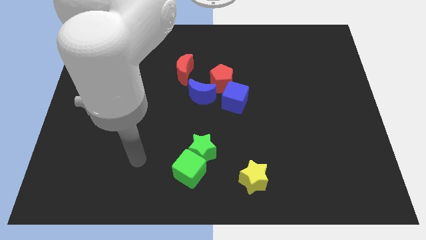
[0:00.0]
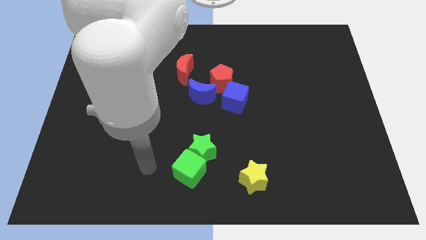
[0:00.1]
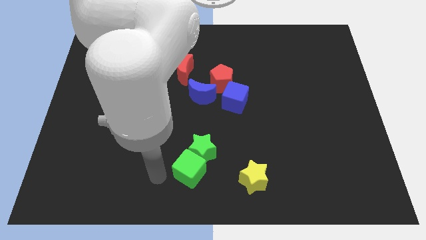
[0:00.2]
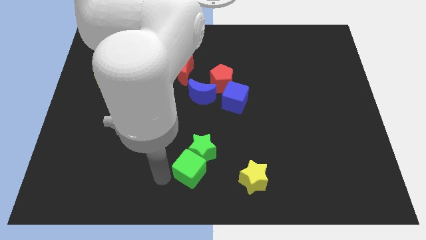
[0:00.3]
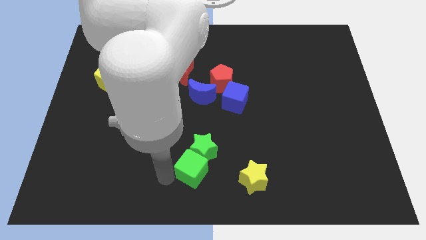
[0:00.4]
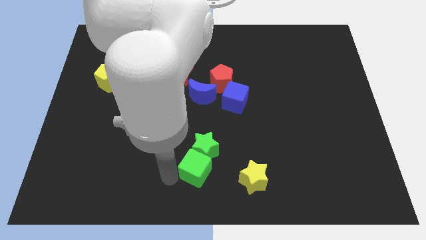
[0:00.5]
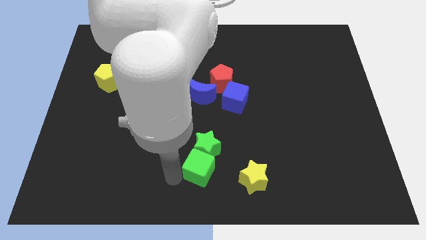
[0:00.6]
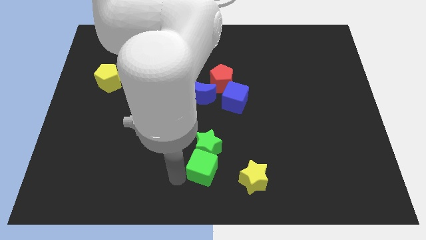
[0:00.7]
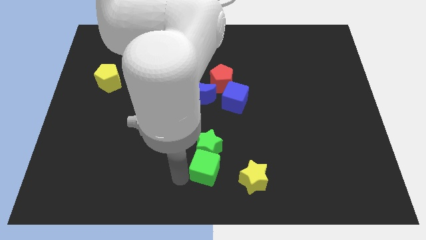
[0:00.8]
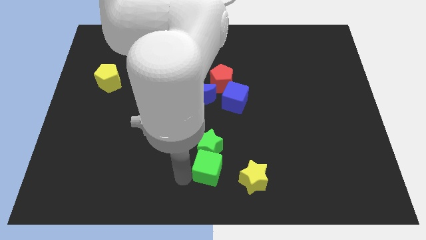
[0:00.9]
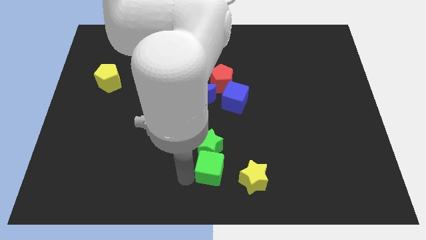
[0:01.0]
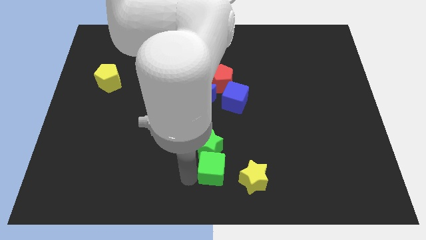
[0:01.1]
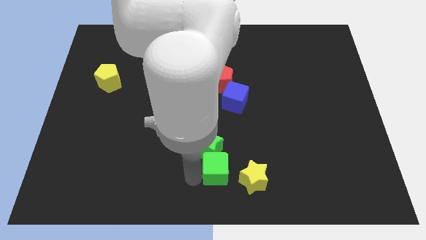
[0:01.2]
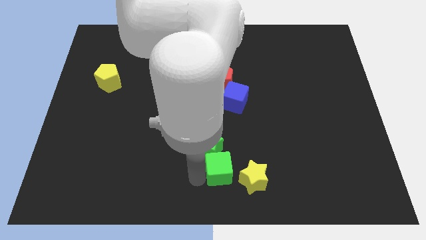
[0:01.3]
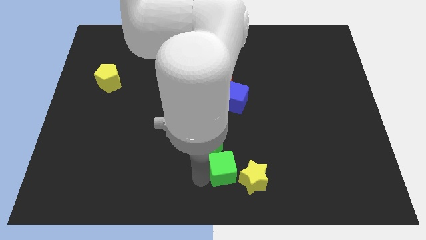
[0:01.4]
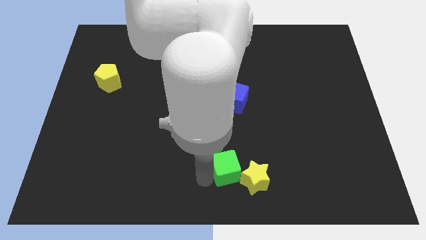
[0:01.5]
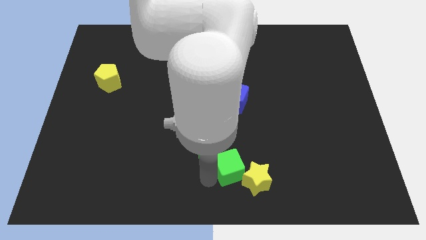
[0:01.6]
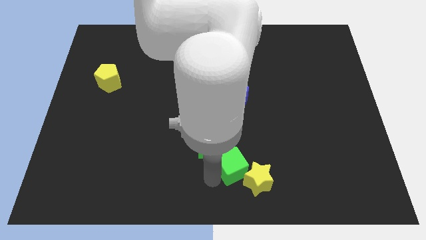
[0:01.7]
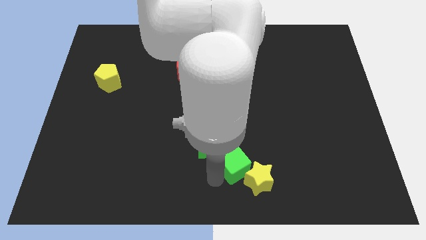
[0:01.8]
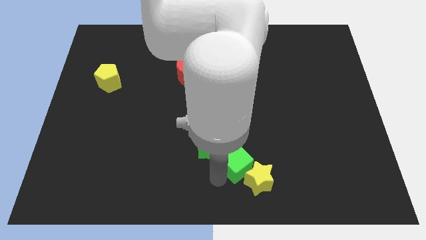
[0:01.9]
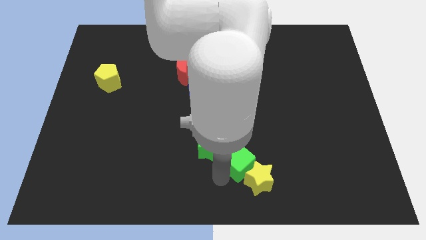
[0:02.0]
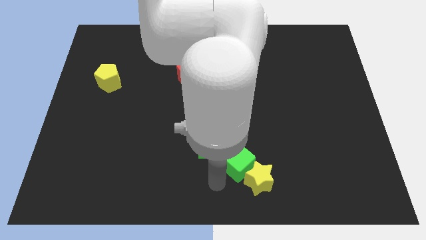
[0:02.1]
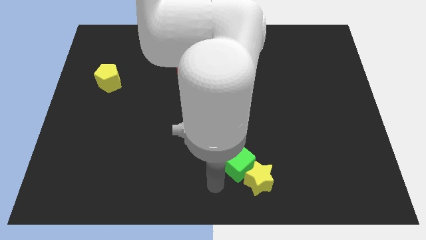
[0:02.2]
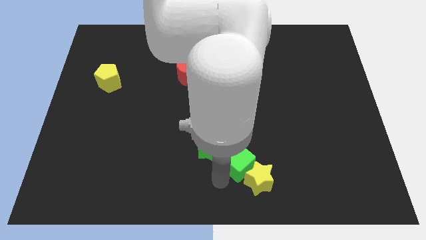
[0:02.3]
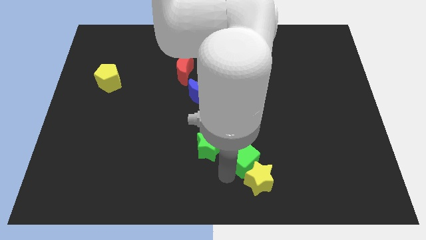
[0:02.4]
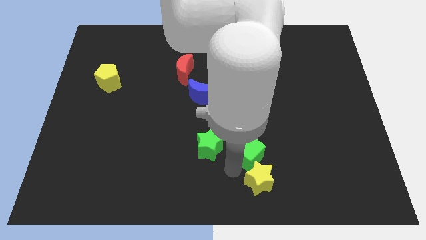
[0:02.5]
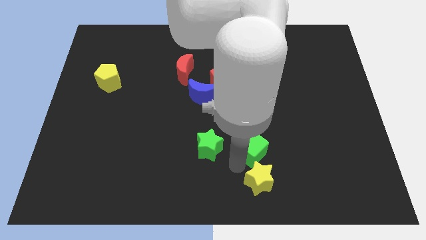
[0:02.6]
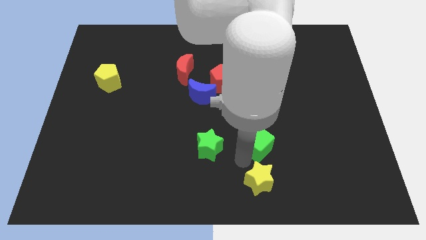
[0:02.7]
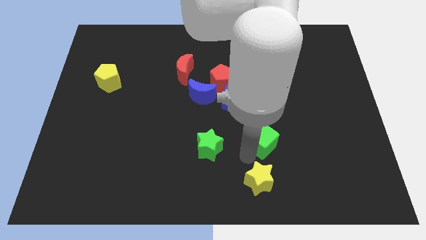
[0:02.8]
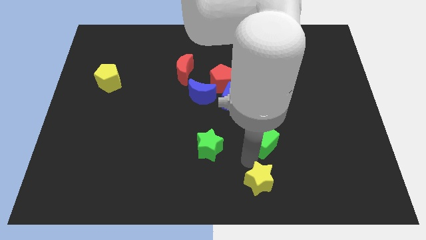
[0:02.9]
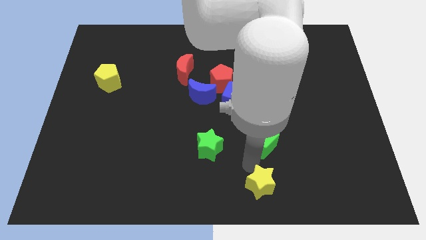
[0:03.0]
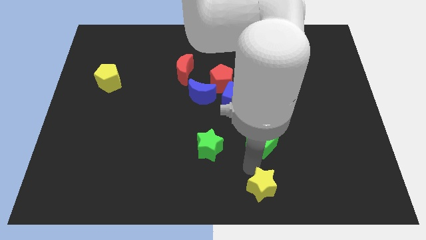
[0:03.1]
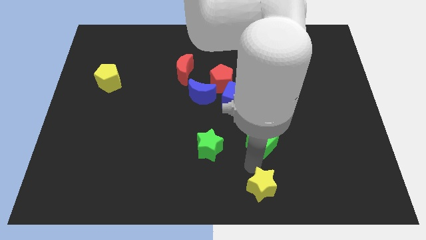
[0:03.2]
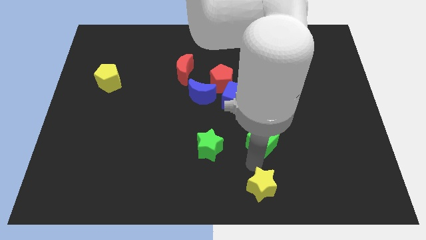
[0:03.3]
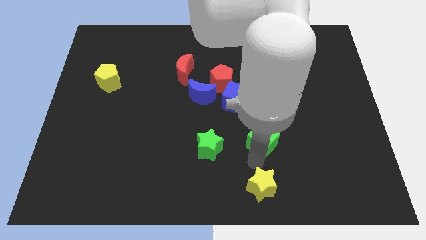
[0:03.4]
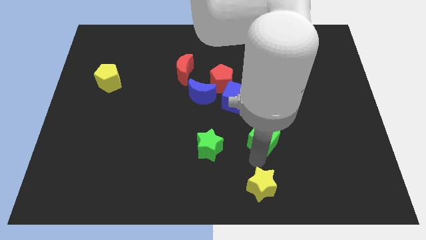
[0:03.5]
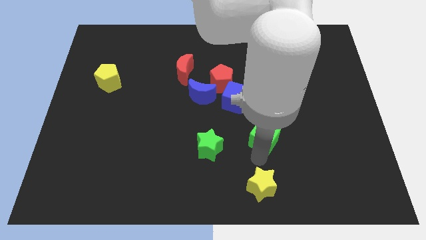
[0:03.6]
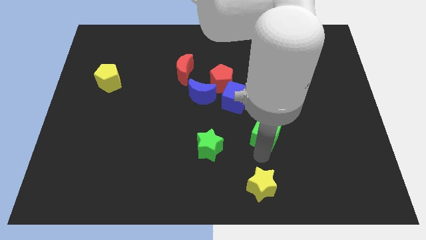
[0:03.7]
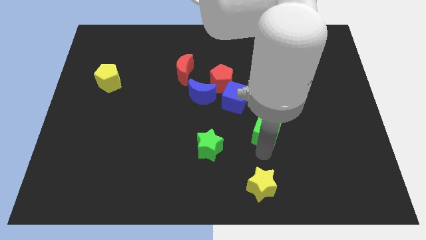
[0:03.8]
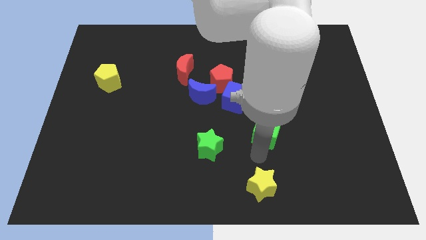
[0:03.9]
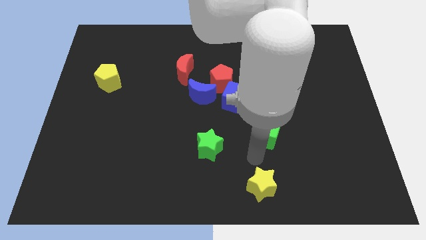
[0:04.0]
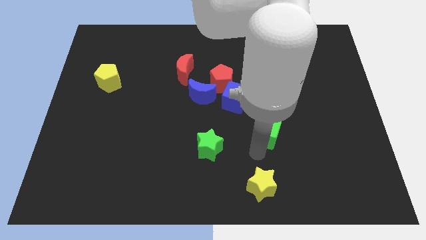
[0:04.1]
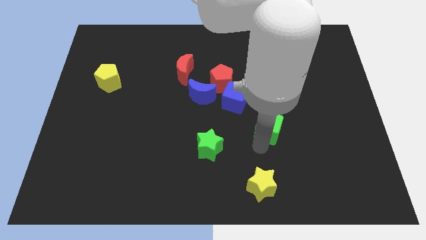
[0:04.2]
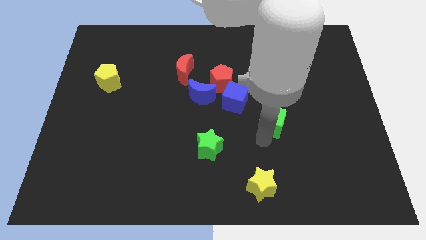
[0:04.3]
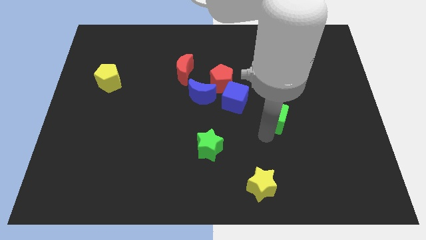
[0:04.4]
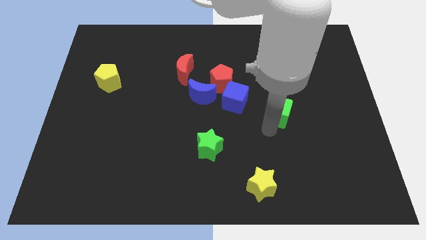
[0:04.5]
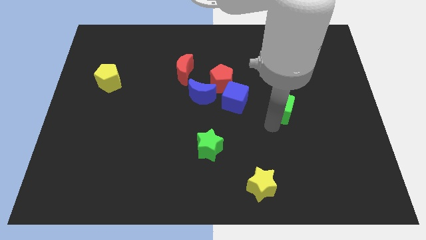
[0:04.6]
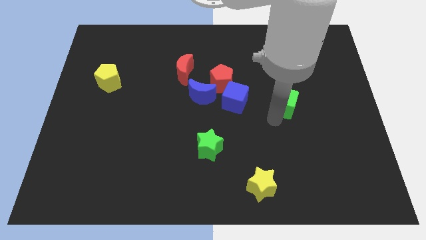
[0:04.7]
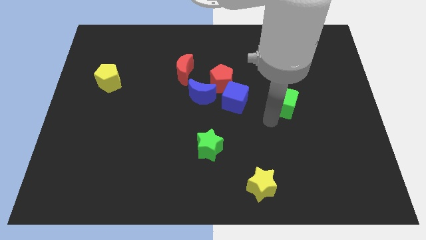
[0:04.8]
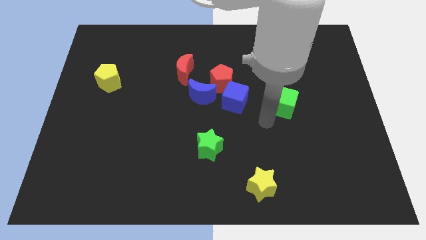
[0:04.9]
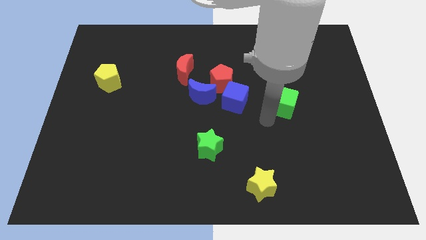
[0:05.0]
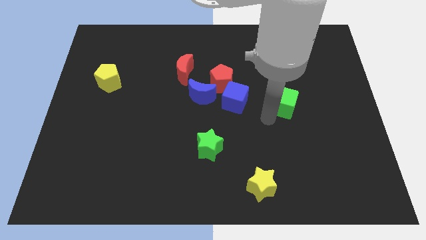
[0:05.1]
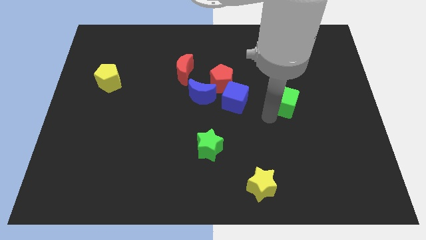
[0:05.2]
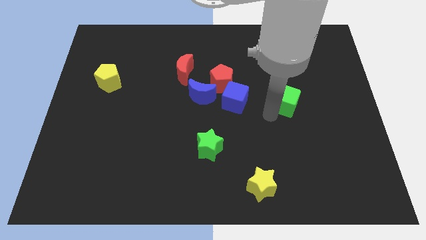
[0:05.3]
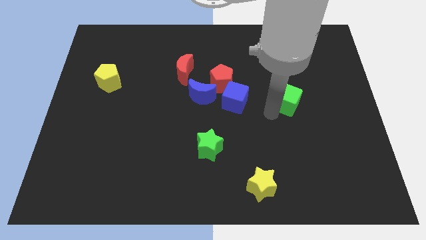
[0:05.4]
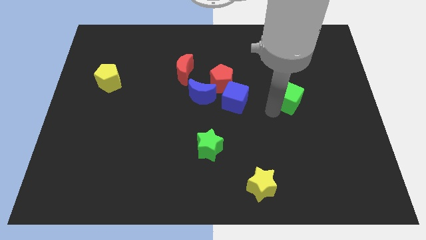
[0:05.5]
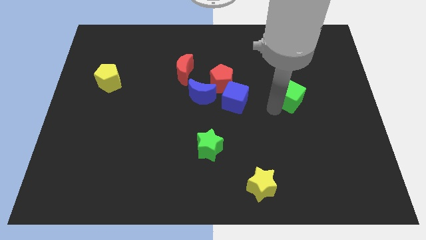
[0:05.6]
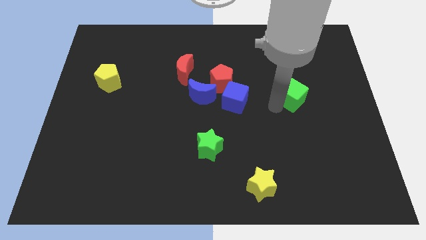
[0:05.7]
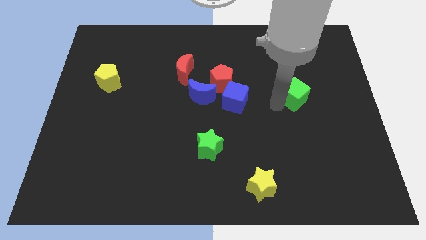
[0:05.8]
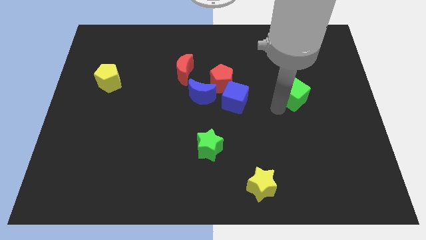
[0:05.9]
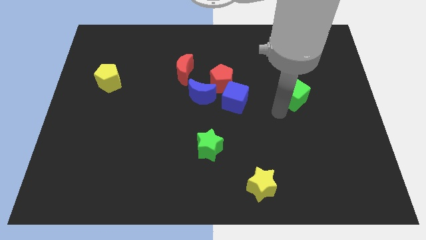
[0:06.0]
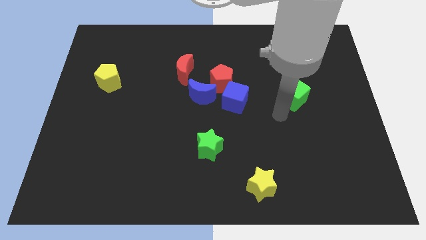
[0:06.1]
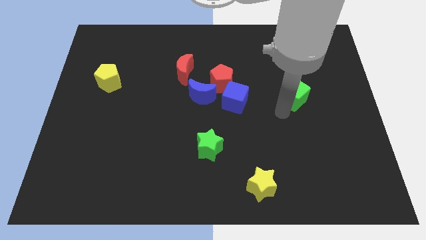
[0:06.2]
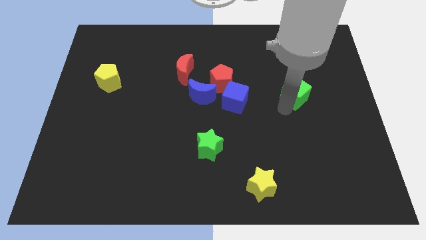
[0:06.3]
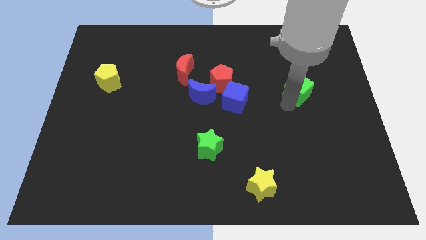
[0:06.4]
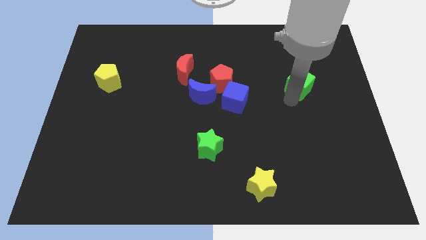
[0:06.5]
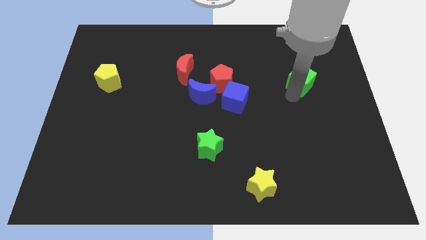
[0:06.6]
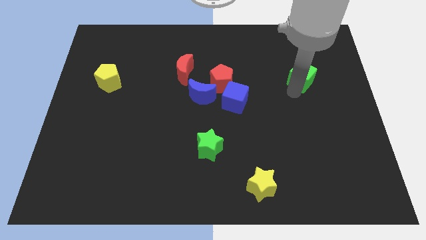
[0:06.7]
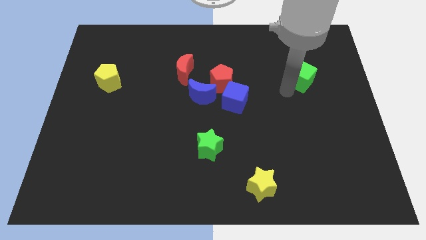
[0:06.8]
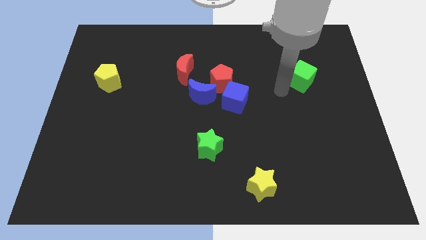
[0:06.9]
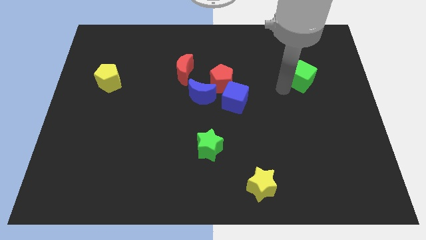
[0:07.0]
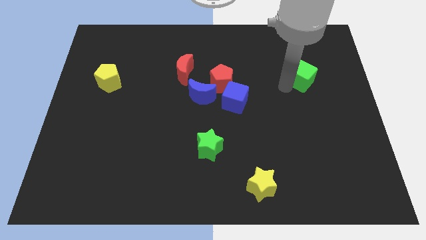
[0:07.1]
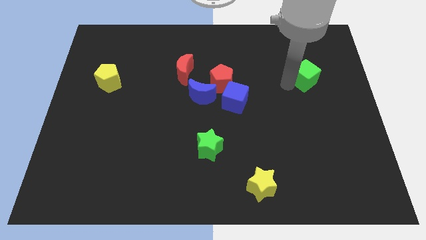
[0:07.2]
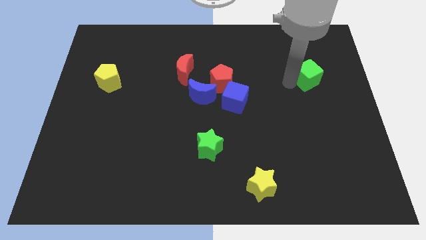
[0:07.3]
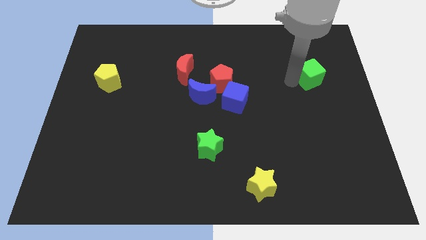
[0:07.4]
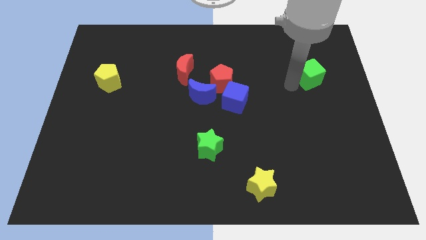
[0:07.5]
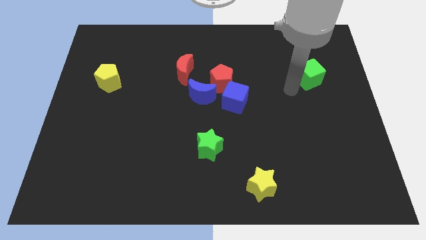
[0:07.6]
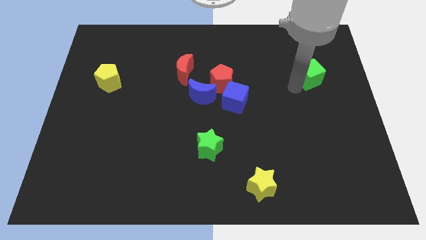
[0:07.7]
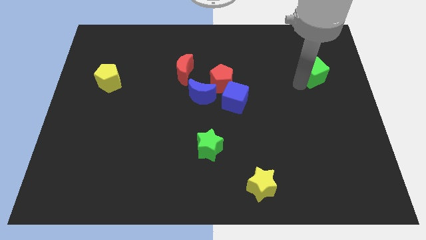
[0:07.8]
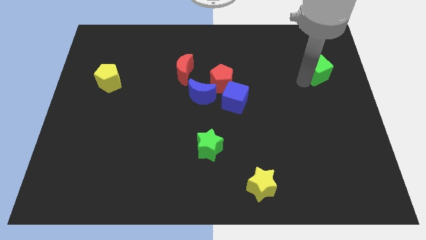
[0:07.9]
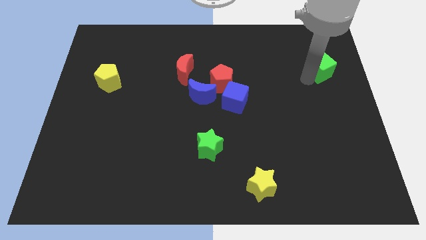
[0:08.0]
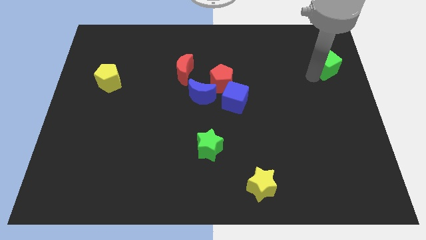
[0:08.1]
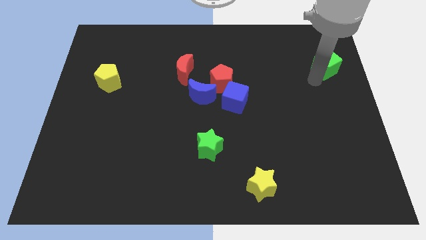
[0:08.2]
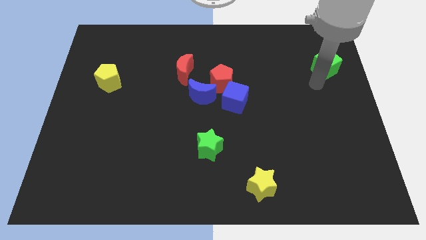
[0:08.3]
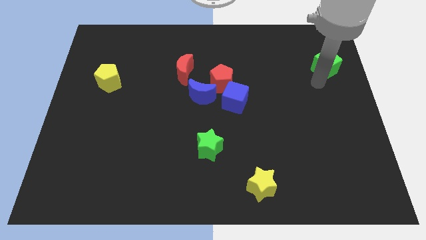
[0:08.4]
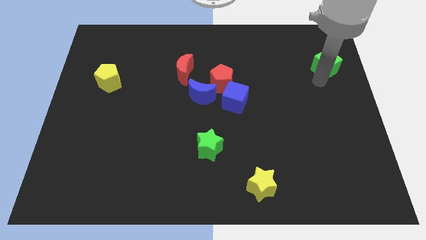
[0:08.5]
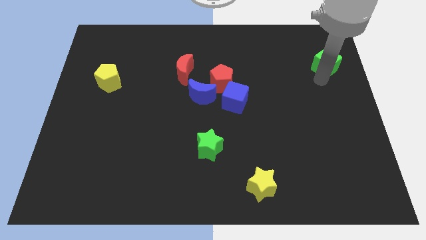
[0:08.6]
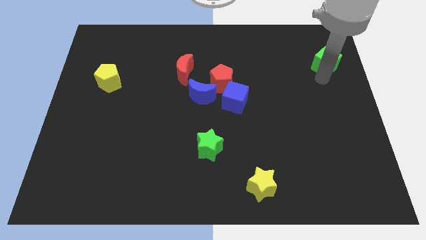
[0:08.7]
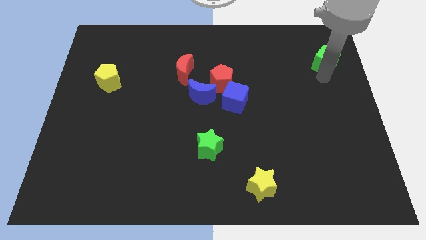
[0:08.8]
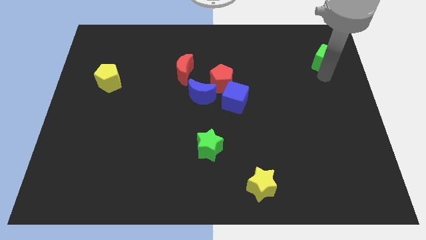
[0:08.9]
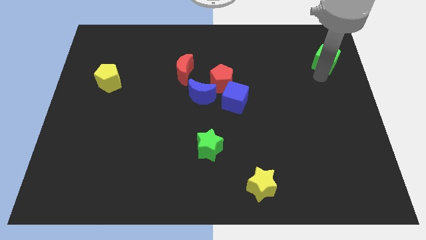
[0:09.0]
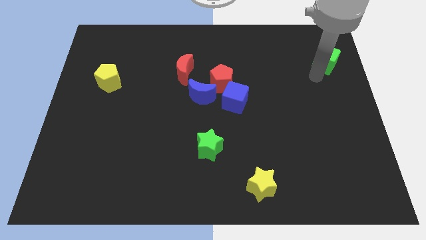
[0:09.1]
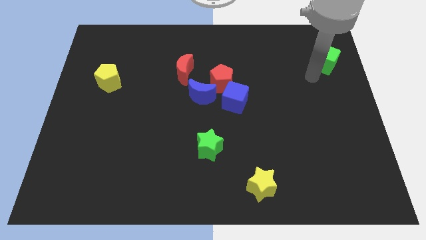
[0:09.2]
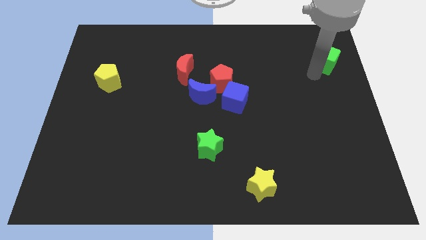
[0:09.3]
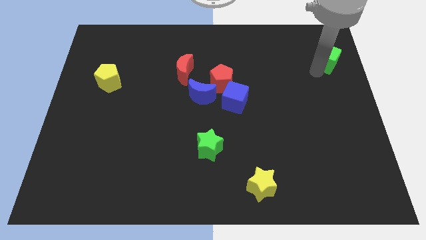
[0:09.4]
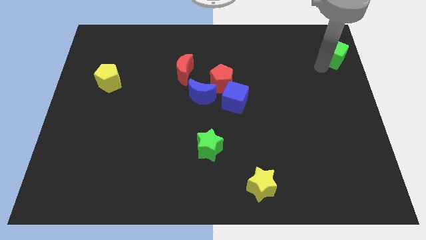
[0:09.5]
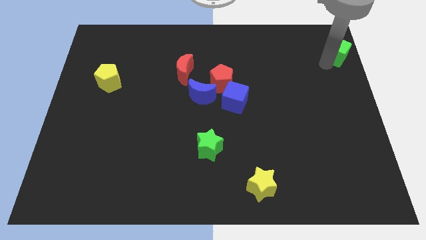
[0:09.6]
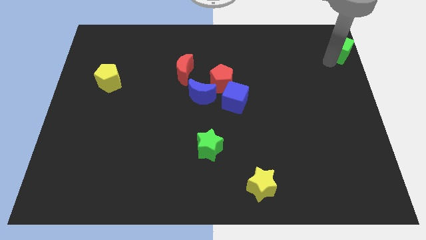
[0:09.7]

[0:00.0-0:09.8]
put the green cube to the top right
